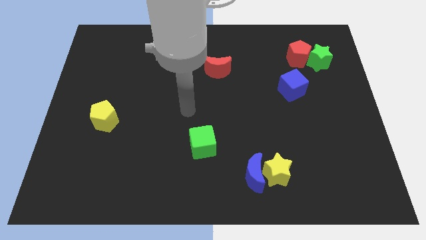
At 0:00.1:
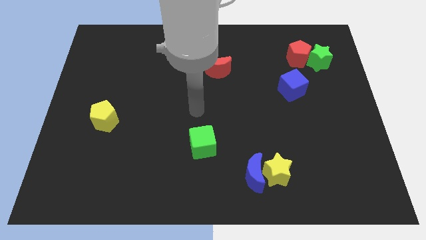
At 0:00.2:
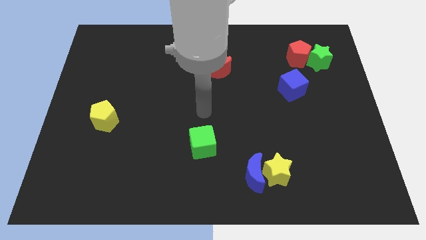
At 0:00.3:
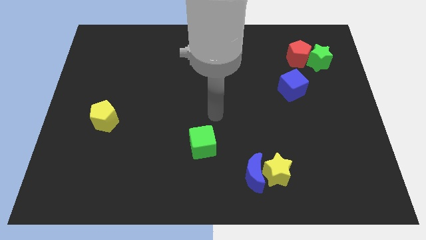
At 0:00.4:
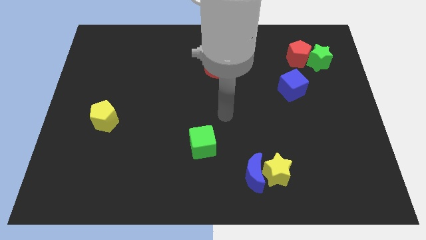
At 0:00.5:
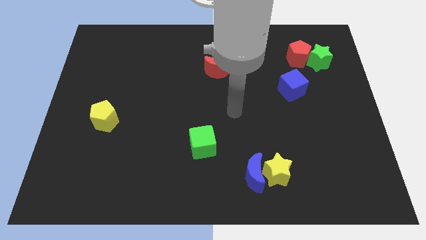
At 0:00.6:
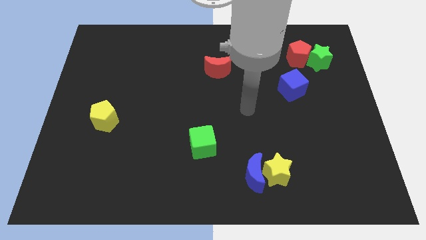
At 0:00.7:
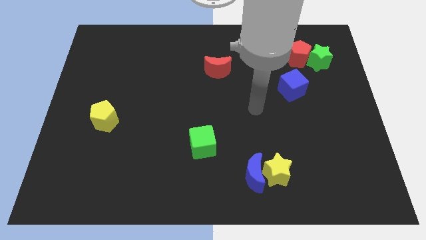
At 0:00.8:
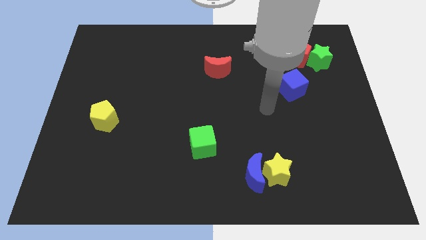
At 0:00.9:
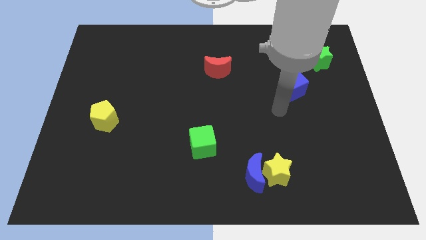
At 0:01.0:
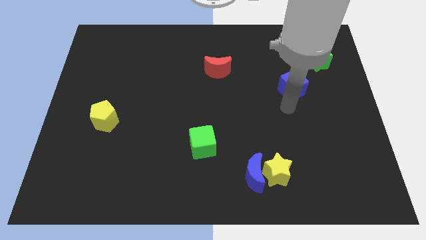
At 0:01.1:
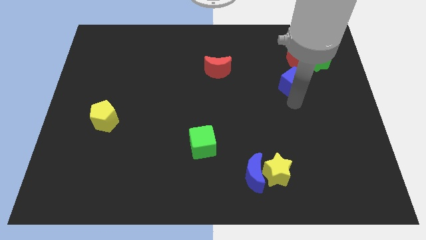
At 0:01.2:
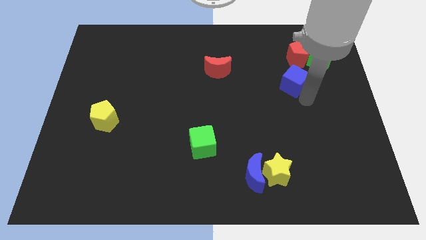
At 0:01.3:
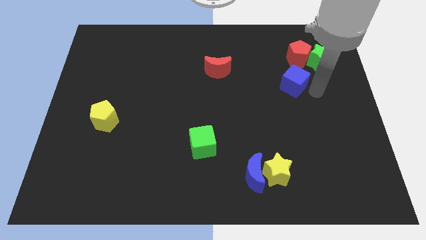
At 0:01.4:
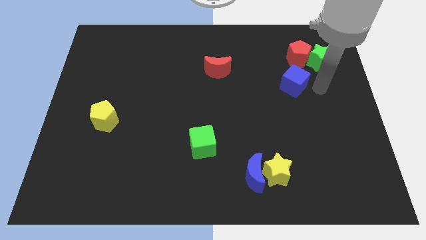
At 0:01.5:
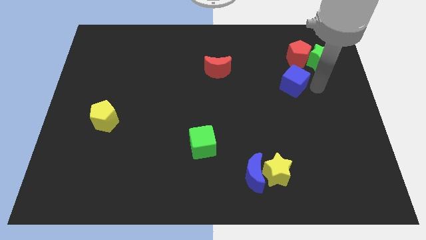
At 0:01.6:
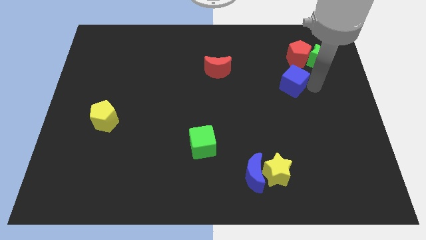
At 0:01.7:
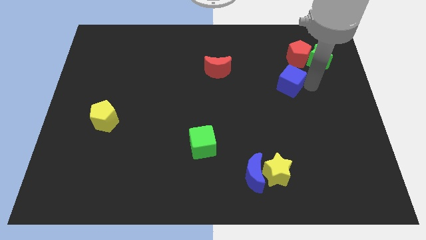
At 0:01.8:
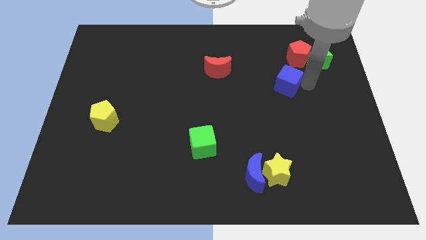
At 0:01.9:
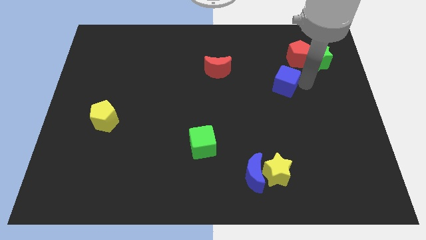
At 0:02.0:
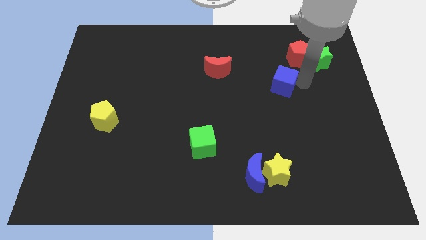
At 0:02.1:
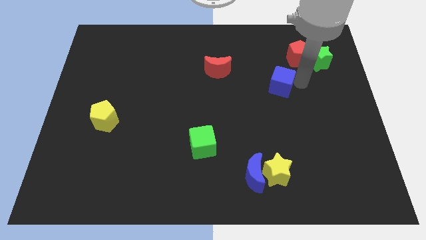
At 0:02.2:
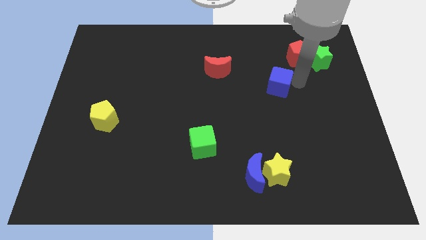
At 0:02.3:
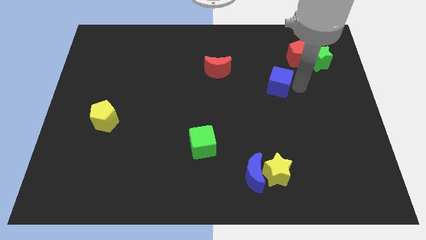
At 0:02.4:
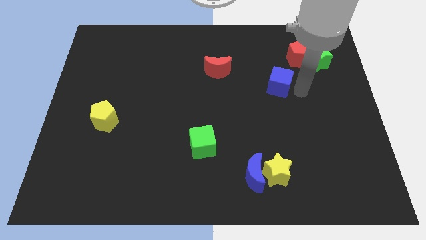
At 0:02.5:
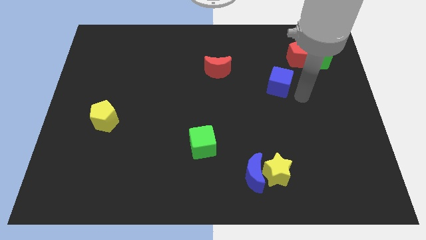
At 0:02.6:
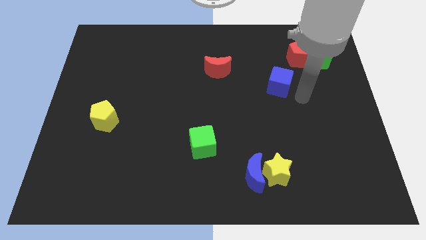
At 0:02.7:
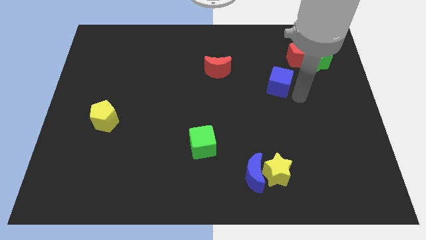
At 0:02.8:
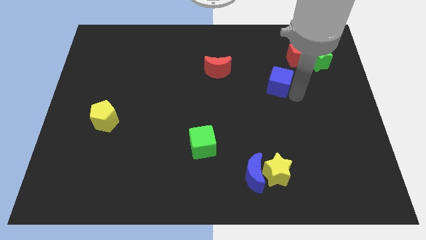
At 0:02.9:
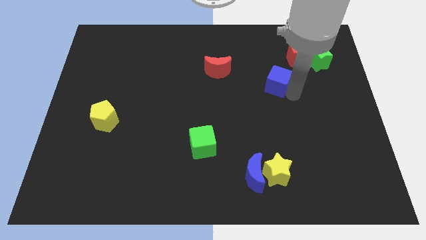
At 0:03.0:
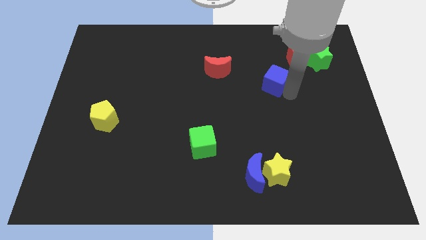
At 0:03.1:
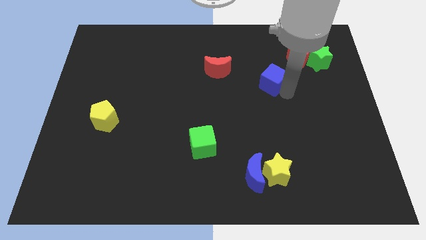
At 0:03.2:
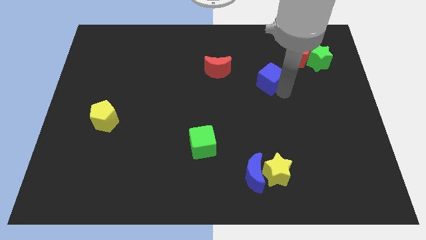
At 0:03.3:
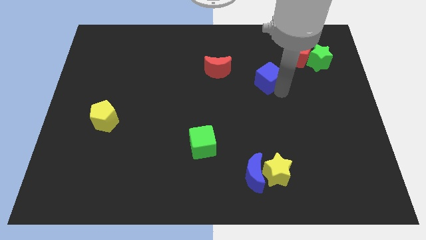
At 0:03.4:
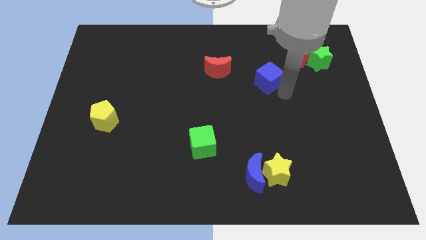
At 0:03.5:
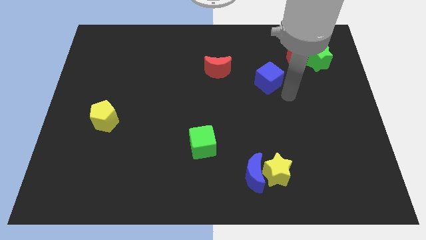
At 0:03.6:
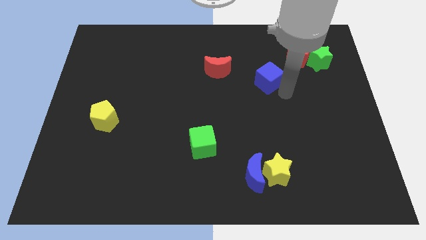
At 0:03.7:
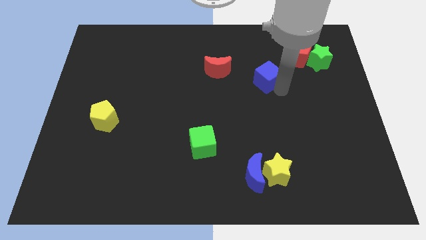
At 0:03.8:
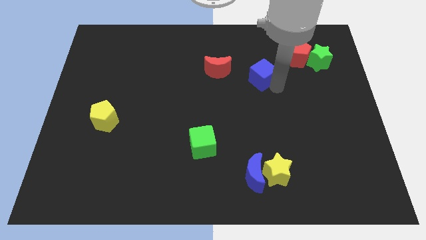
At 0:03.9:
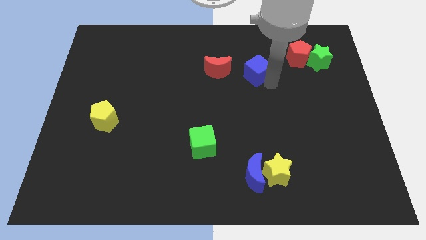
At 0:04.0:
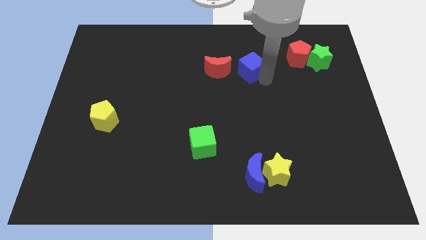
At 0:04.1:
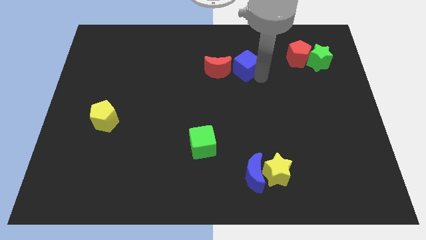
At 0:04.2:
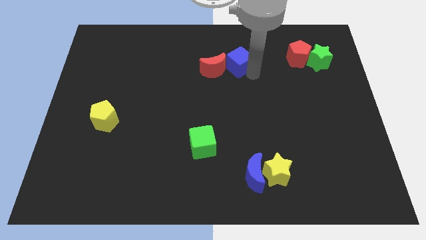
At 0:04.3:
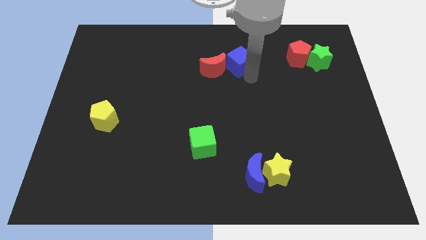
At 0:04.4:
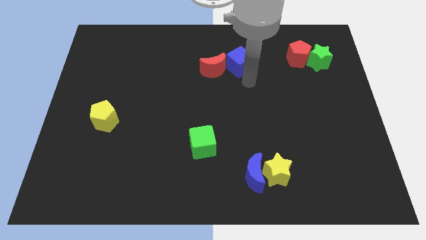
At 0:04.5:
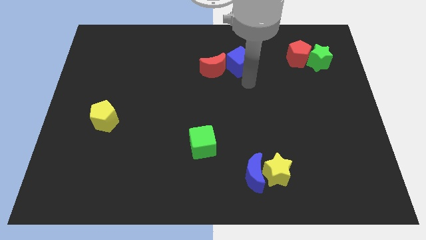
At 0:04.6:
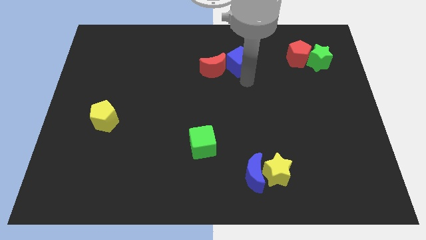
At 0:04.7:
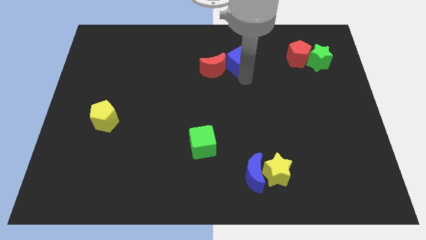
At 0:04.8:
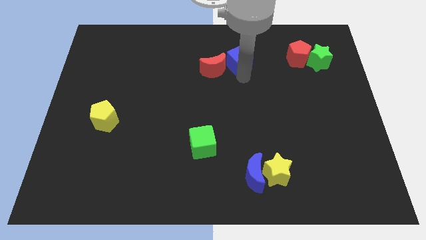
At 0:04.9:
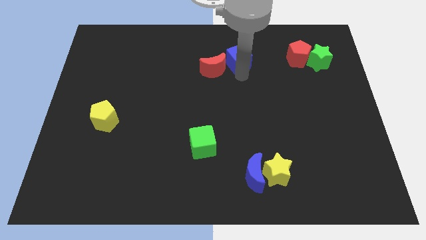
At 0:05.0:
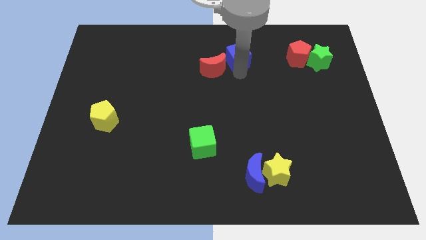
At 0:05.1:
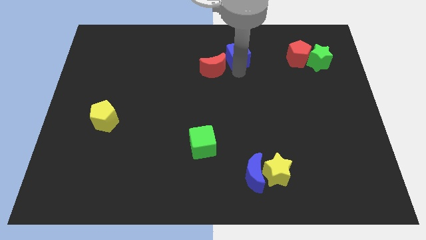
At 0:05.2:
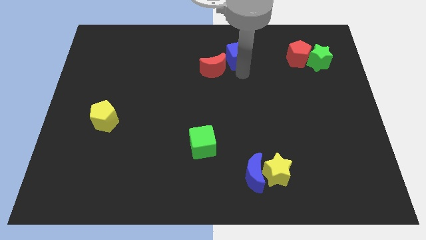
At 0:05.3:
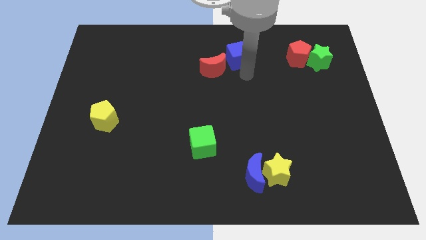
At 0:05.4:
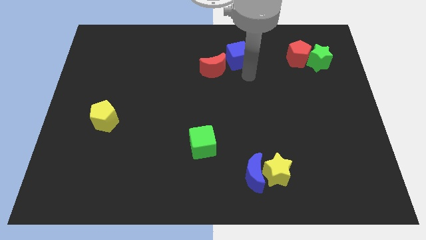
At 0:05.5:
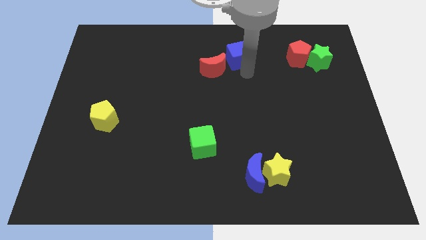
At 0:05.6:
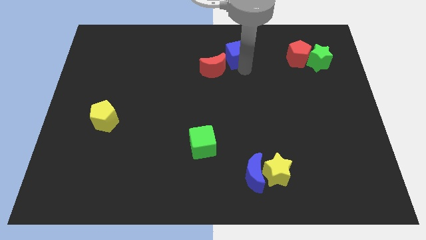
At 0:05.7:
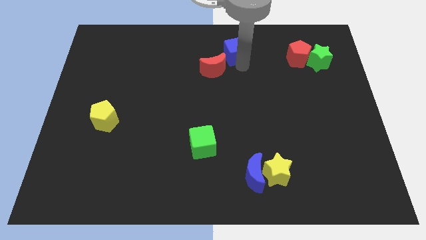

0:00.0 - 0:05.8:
put the blue cube to the top side

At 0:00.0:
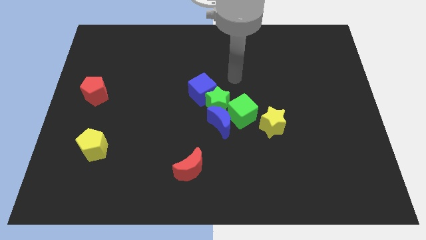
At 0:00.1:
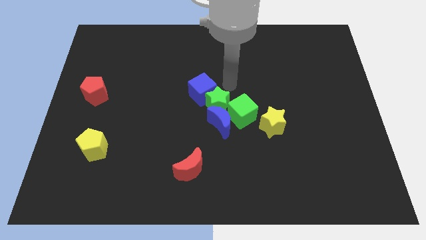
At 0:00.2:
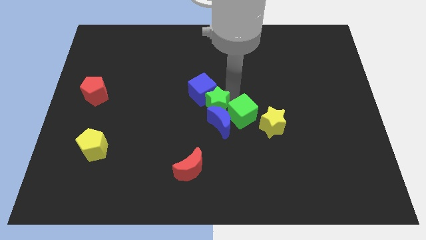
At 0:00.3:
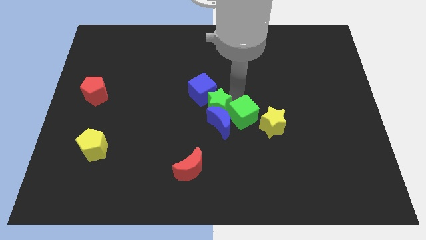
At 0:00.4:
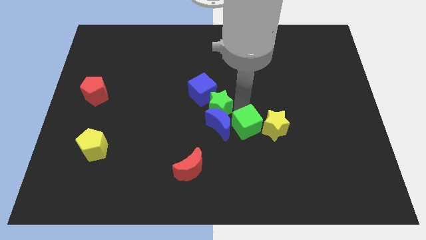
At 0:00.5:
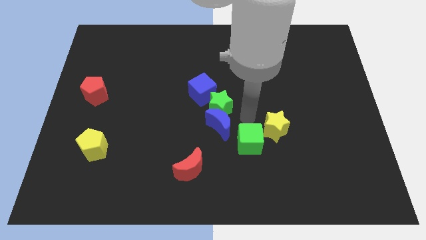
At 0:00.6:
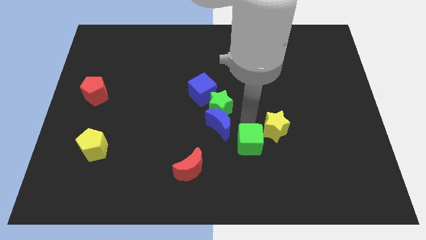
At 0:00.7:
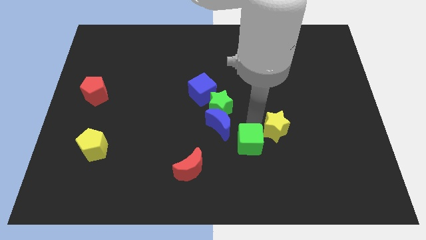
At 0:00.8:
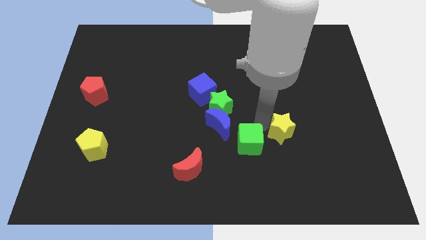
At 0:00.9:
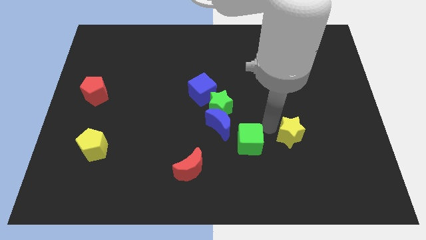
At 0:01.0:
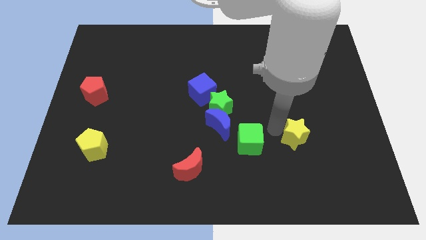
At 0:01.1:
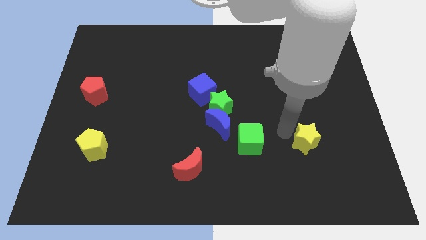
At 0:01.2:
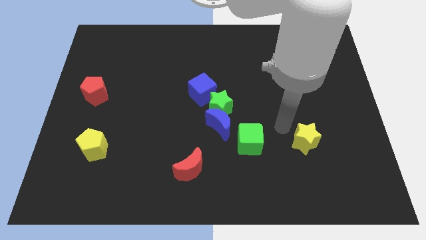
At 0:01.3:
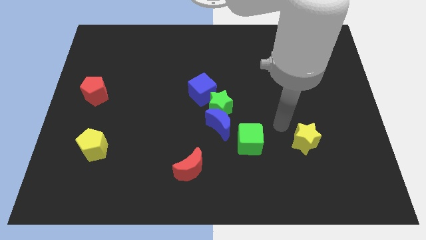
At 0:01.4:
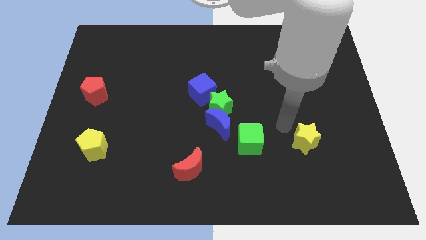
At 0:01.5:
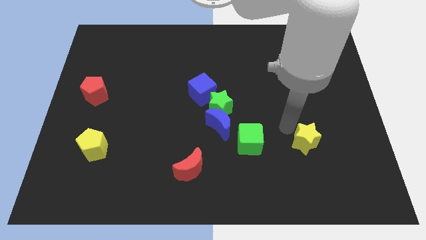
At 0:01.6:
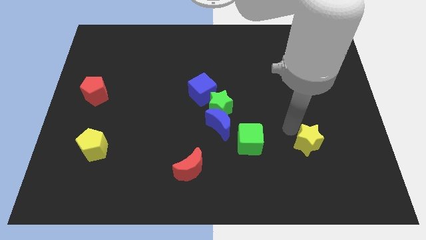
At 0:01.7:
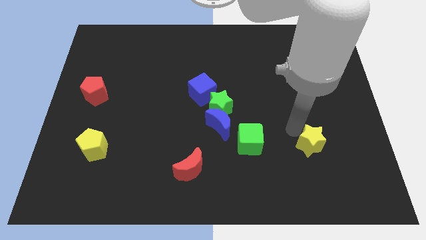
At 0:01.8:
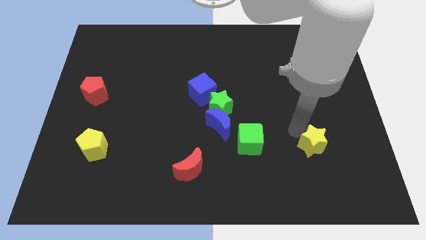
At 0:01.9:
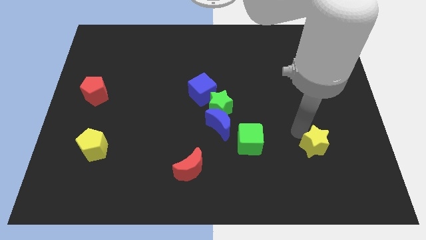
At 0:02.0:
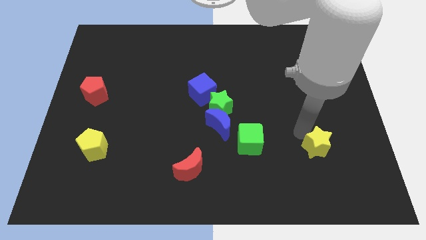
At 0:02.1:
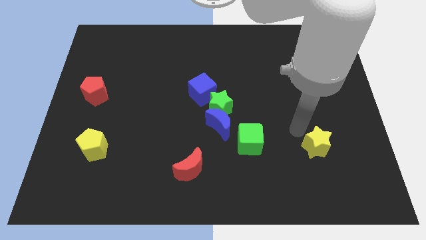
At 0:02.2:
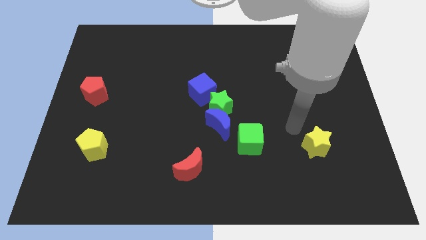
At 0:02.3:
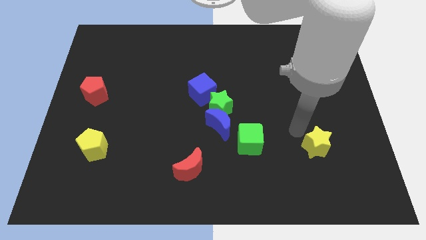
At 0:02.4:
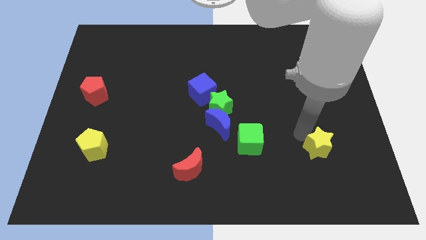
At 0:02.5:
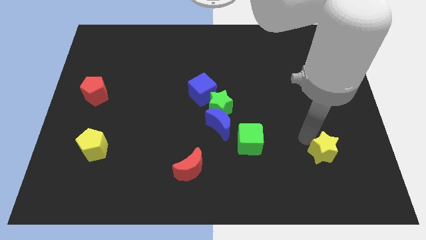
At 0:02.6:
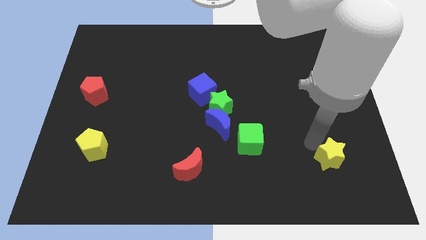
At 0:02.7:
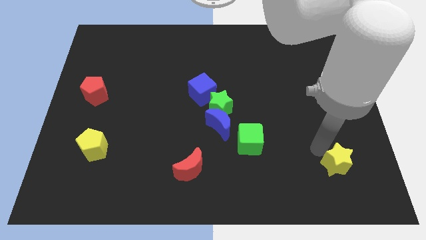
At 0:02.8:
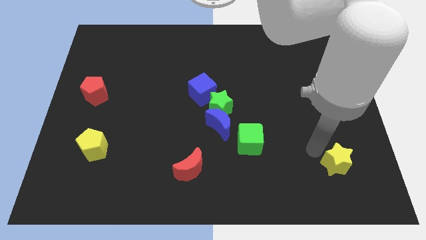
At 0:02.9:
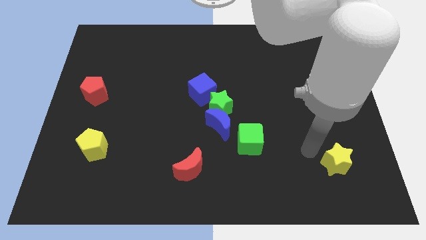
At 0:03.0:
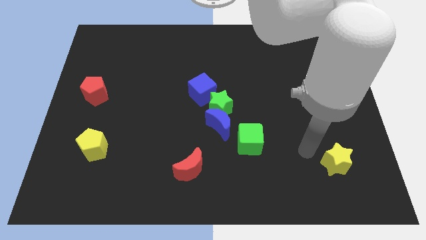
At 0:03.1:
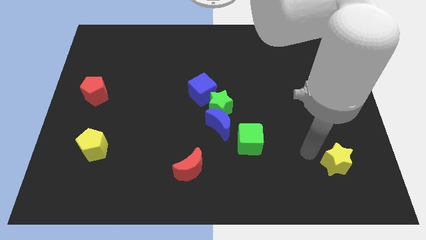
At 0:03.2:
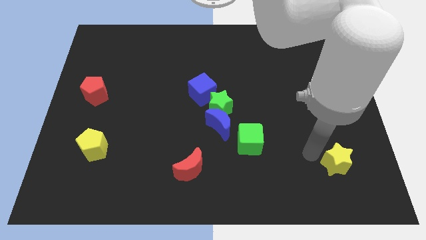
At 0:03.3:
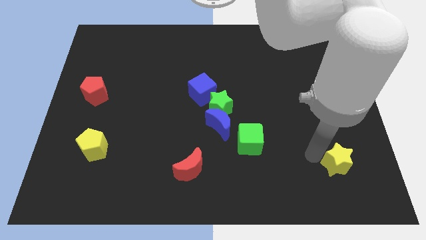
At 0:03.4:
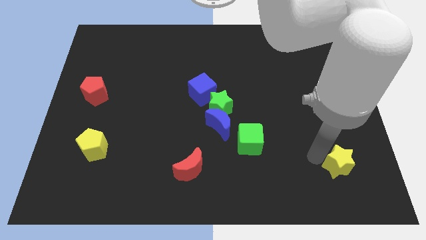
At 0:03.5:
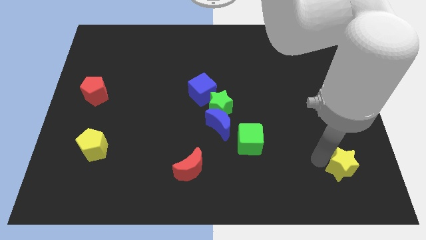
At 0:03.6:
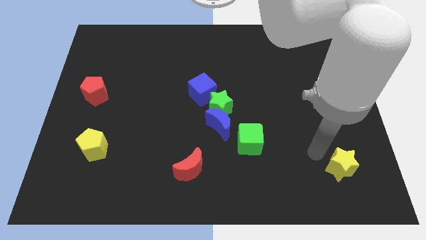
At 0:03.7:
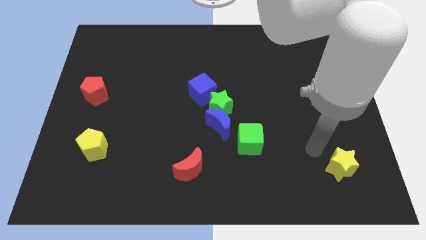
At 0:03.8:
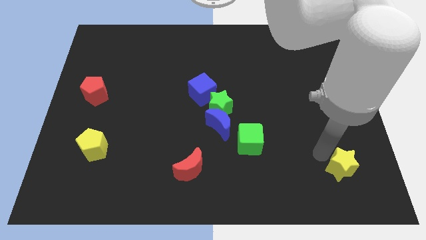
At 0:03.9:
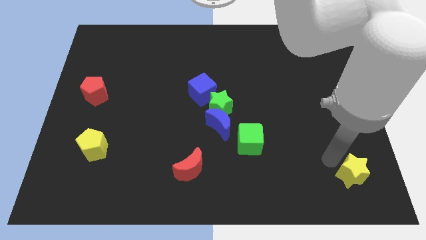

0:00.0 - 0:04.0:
slide the yellow star to the lower right corner
